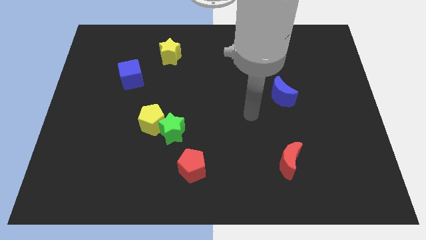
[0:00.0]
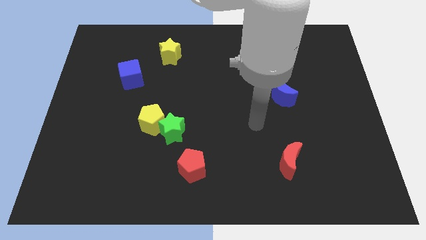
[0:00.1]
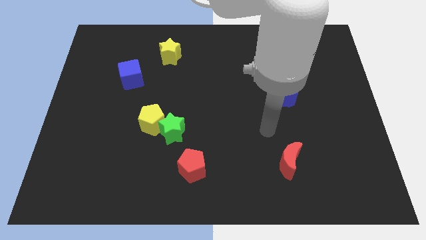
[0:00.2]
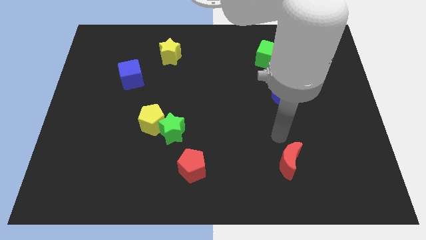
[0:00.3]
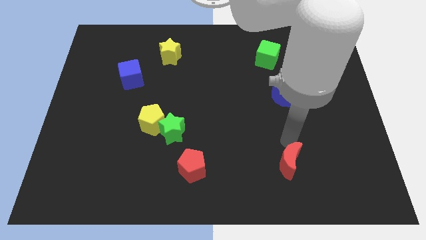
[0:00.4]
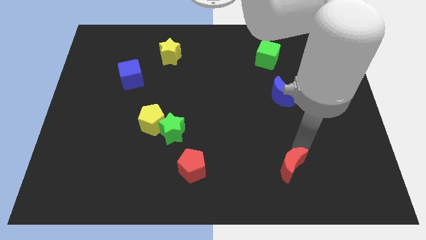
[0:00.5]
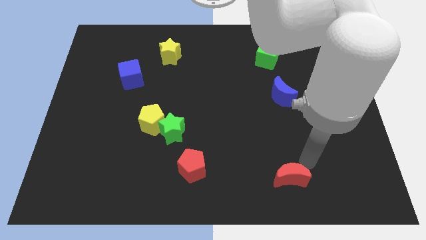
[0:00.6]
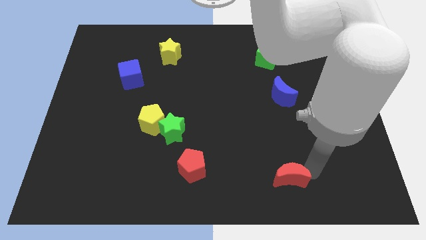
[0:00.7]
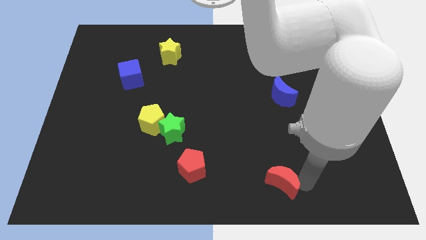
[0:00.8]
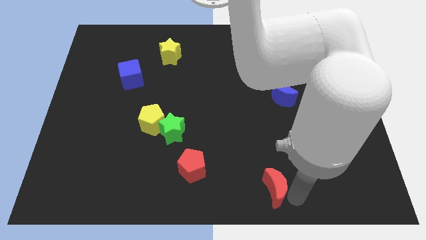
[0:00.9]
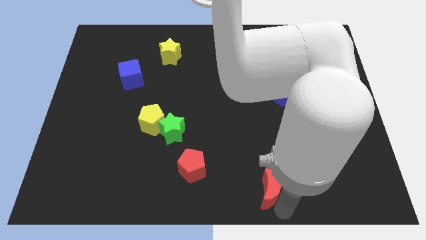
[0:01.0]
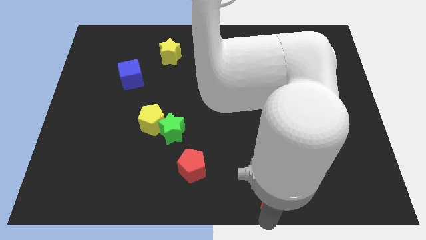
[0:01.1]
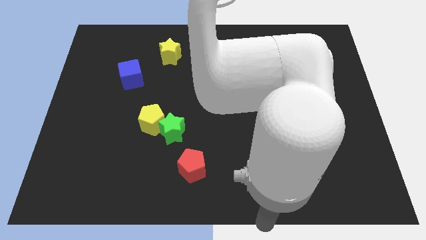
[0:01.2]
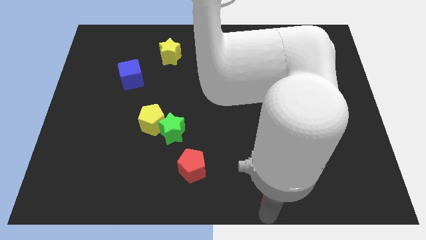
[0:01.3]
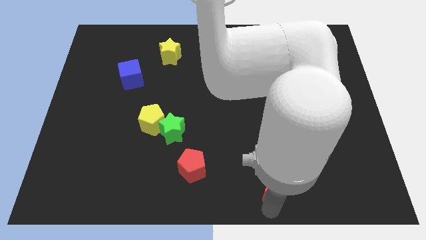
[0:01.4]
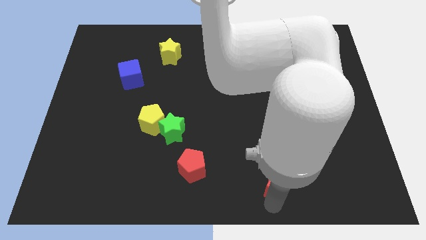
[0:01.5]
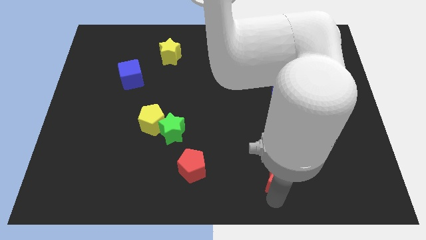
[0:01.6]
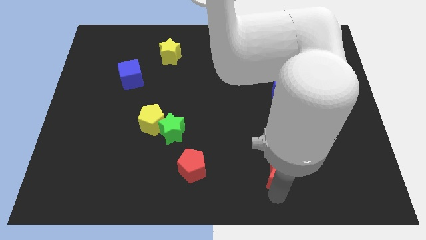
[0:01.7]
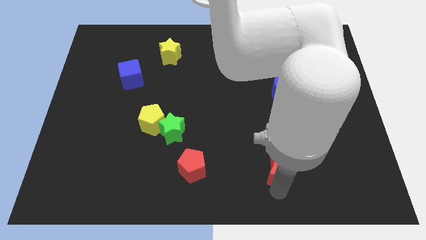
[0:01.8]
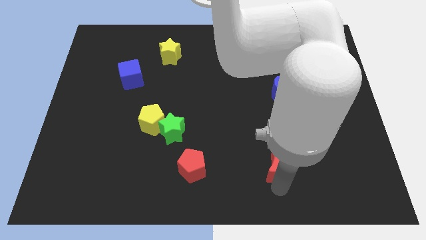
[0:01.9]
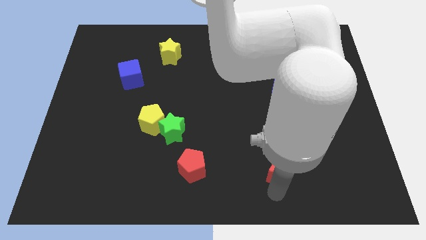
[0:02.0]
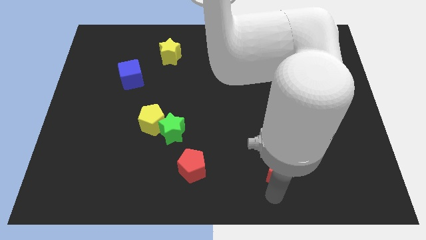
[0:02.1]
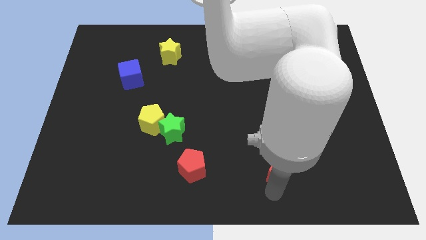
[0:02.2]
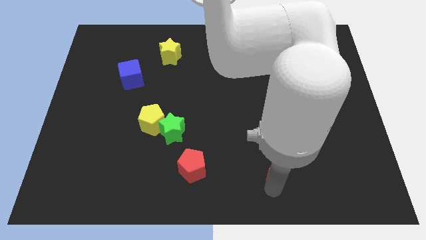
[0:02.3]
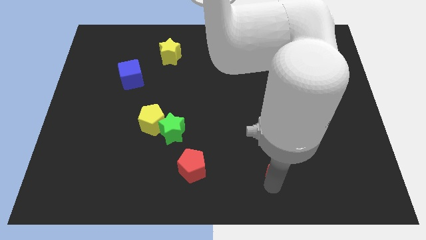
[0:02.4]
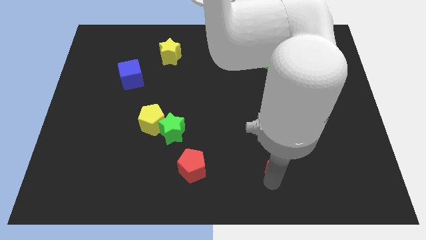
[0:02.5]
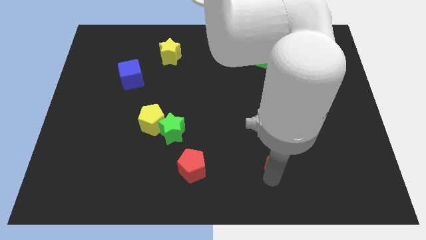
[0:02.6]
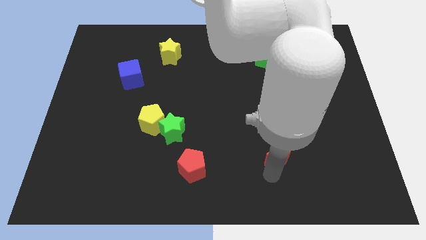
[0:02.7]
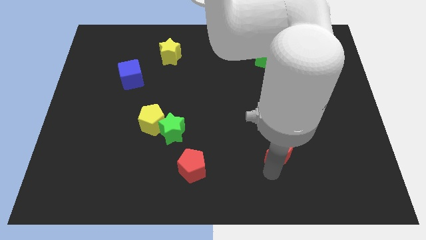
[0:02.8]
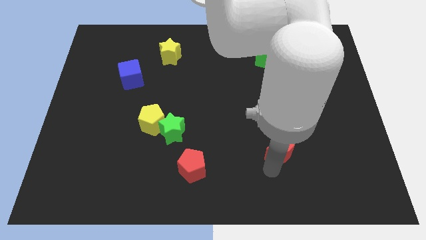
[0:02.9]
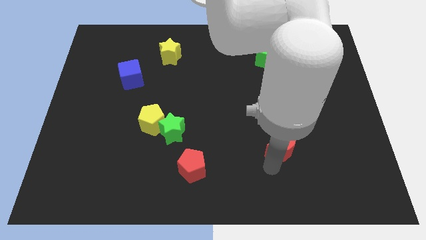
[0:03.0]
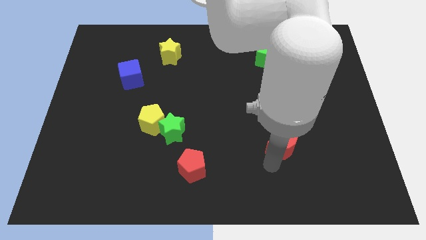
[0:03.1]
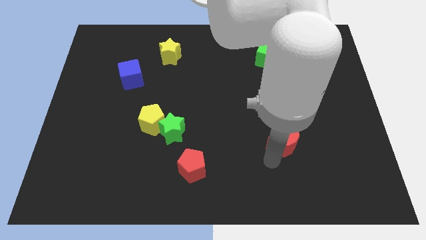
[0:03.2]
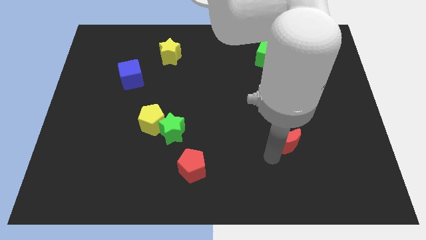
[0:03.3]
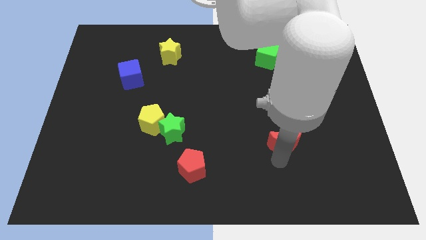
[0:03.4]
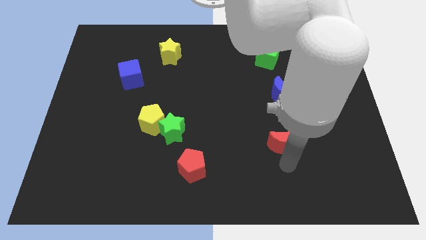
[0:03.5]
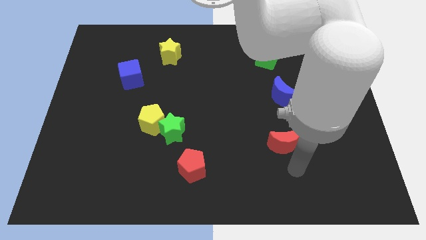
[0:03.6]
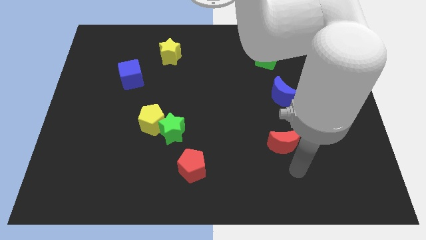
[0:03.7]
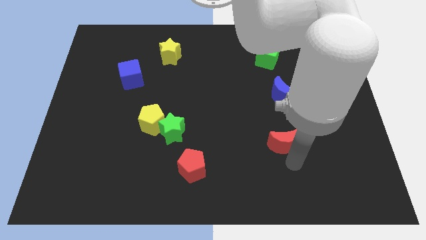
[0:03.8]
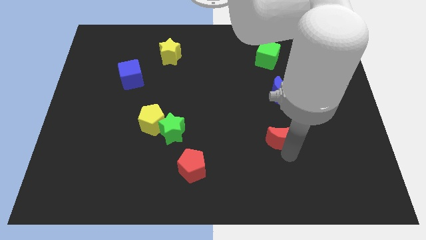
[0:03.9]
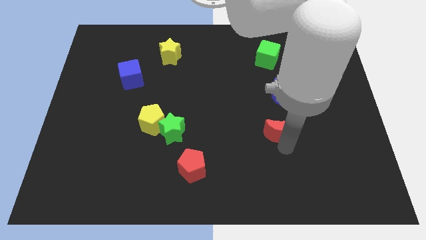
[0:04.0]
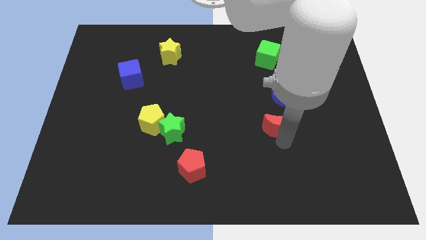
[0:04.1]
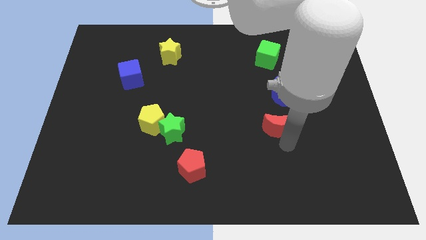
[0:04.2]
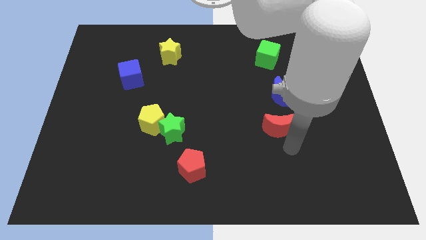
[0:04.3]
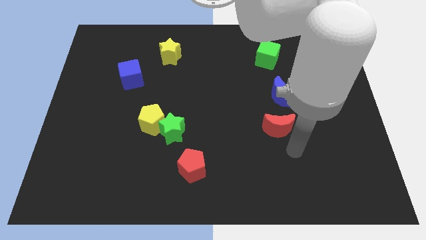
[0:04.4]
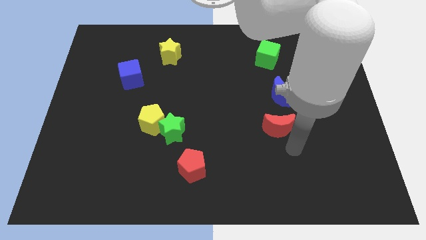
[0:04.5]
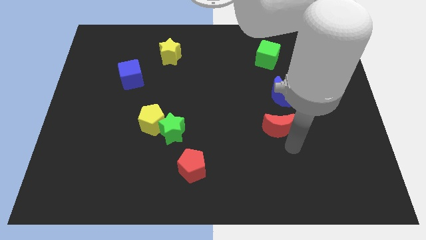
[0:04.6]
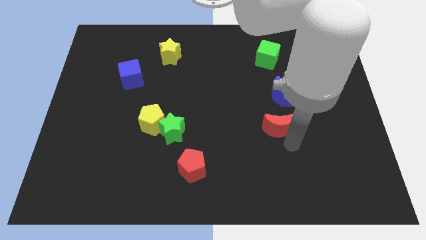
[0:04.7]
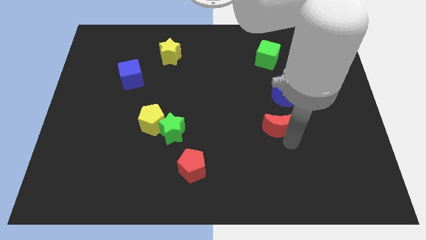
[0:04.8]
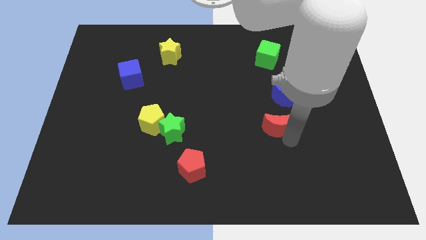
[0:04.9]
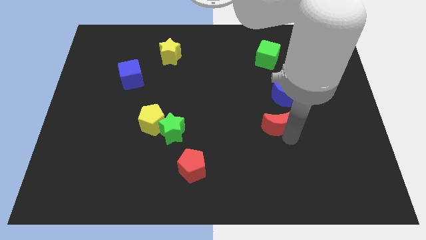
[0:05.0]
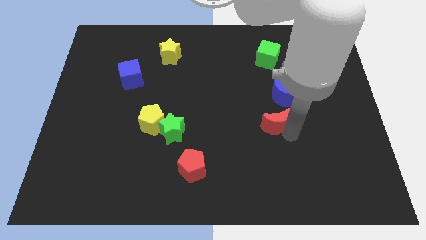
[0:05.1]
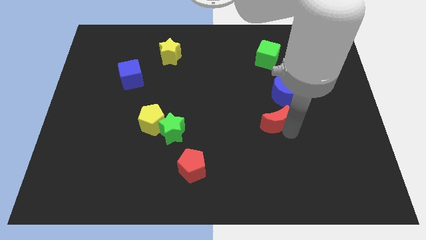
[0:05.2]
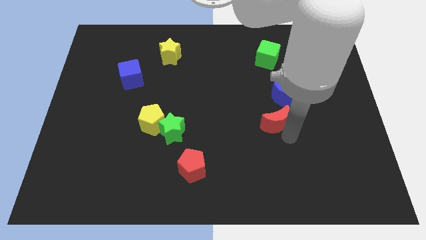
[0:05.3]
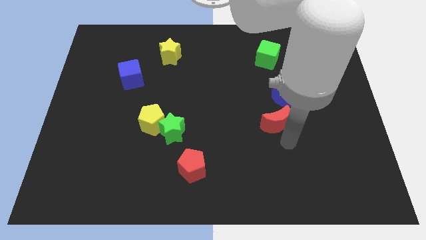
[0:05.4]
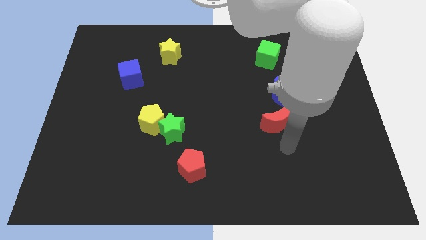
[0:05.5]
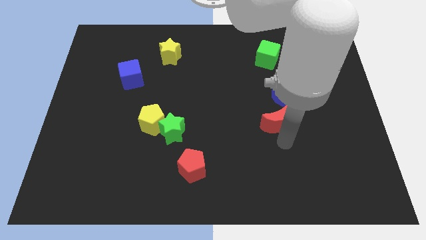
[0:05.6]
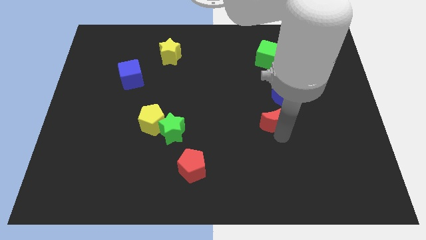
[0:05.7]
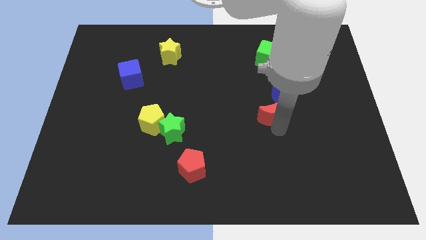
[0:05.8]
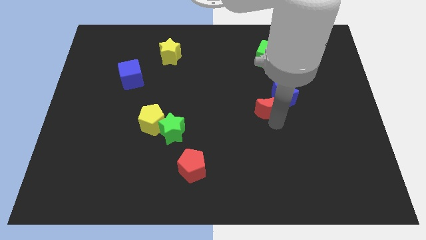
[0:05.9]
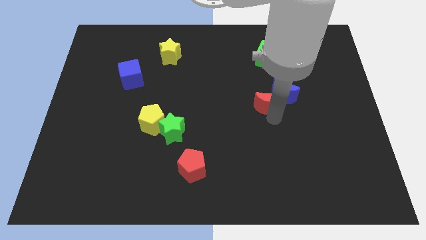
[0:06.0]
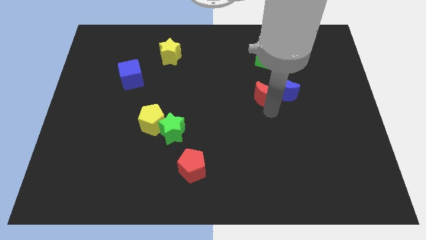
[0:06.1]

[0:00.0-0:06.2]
push the red moon to the top left of the blue moon

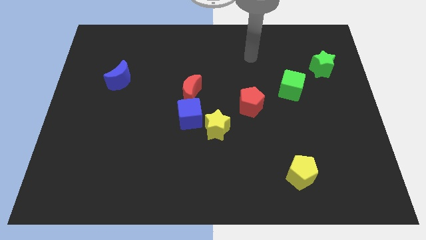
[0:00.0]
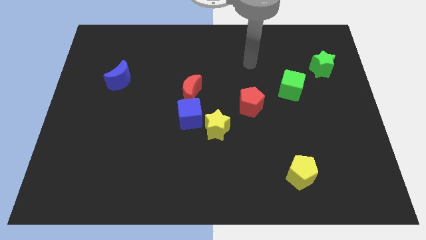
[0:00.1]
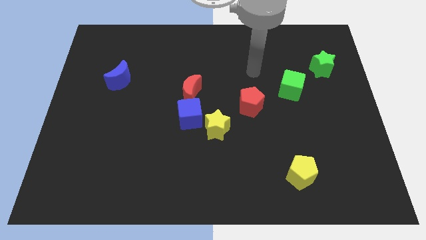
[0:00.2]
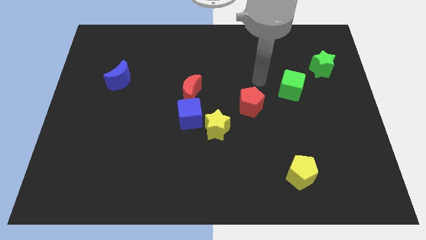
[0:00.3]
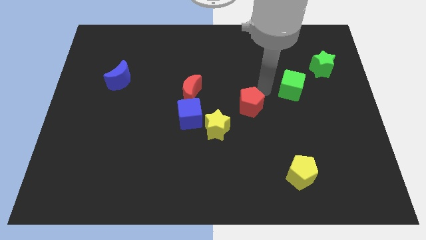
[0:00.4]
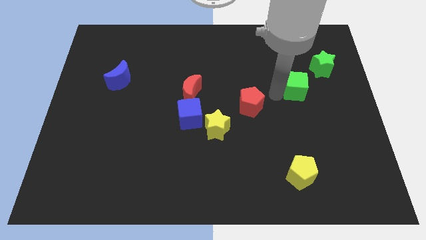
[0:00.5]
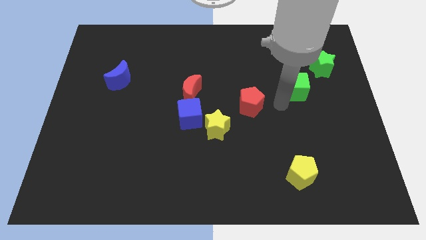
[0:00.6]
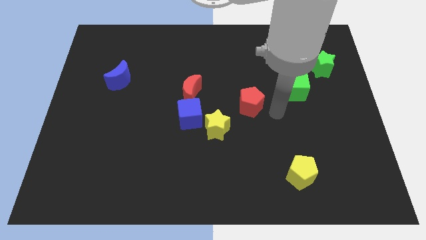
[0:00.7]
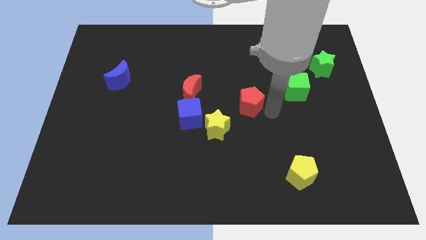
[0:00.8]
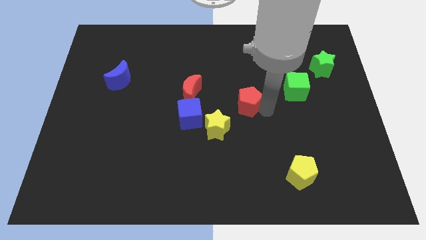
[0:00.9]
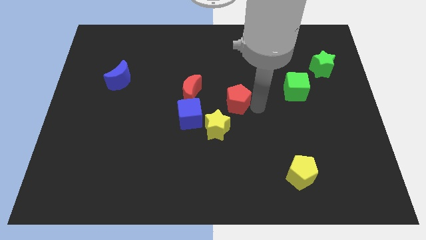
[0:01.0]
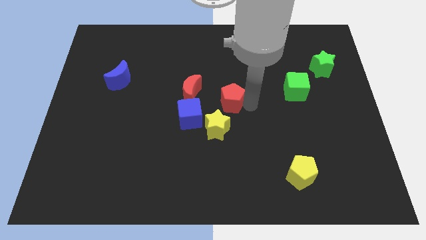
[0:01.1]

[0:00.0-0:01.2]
slide the red pentagon diagonally up and to the right of the blue cube
